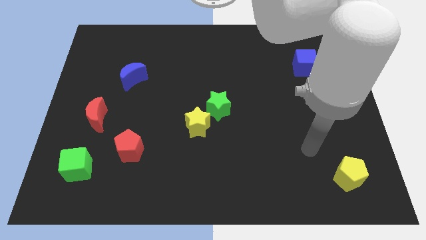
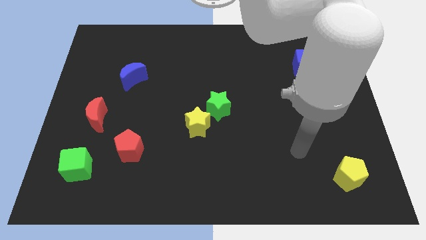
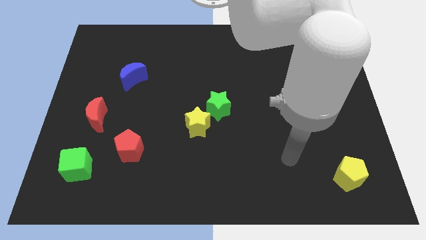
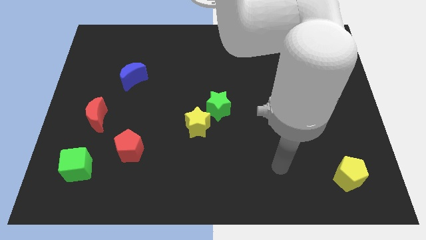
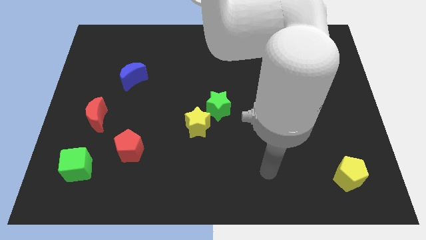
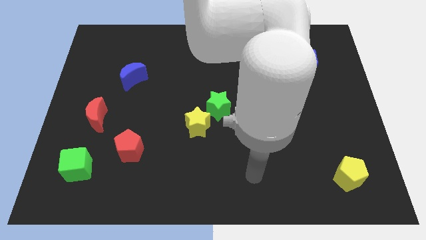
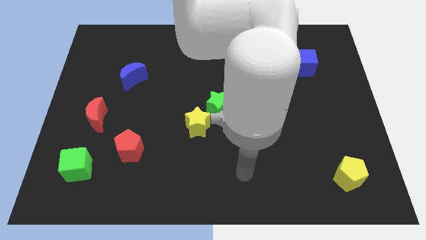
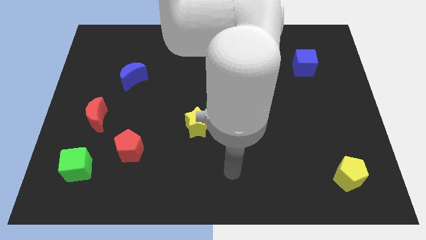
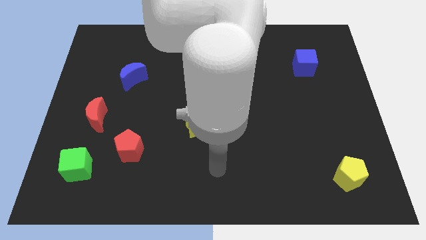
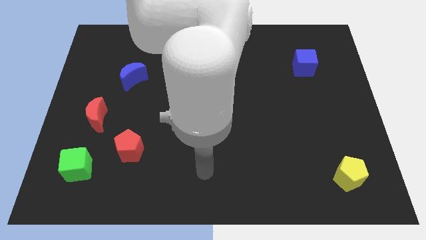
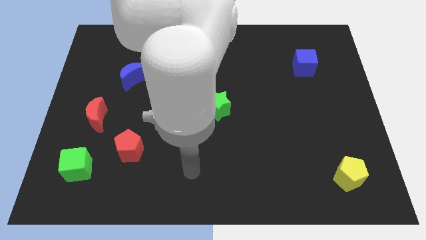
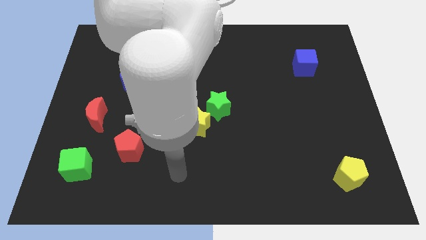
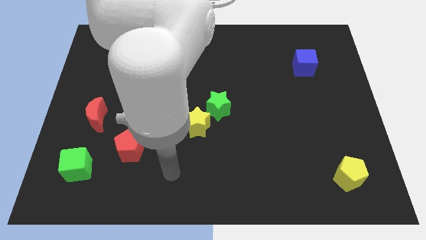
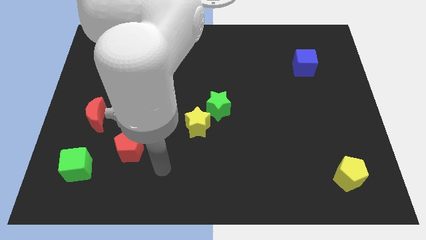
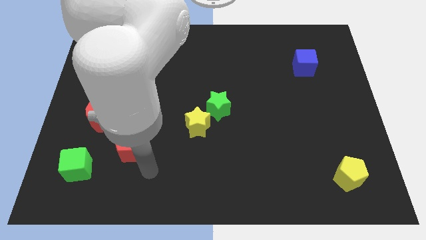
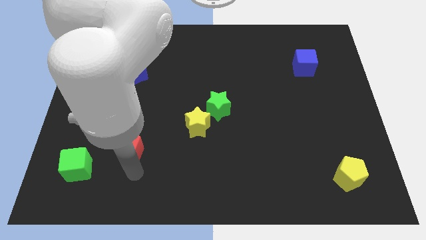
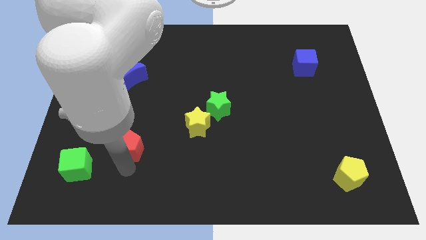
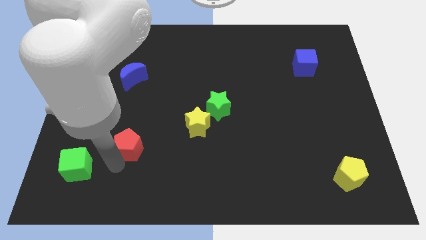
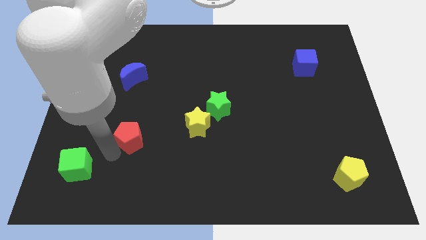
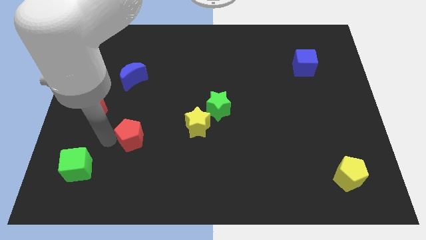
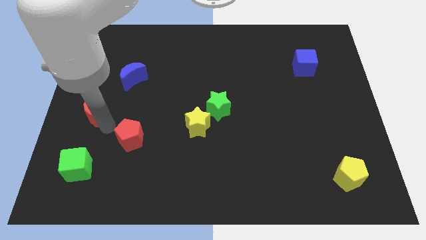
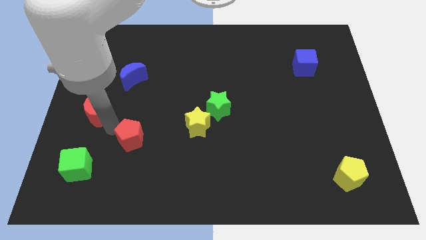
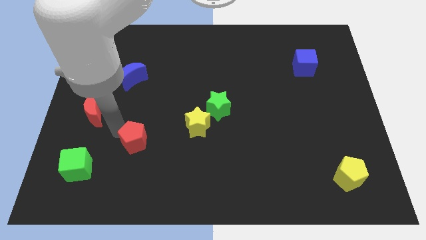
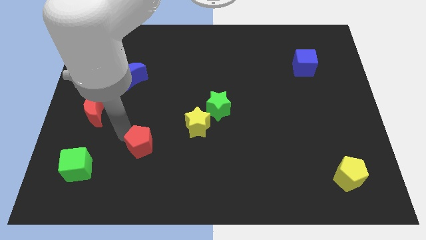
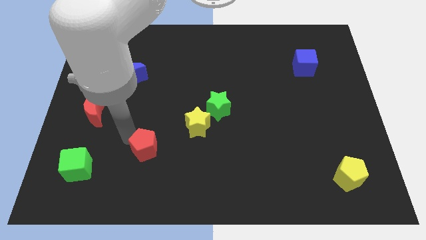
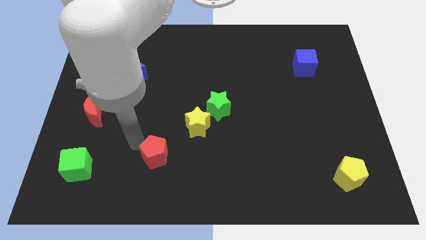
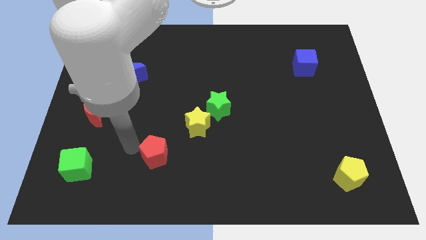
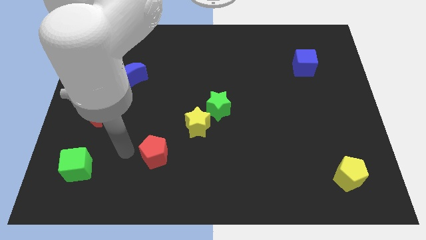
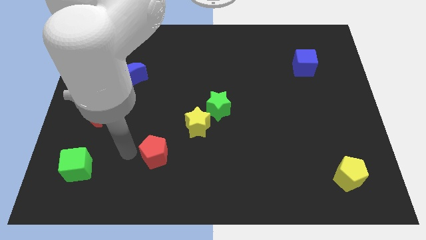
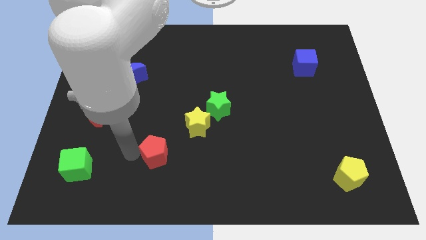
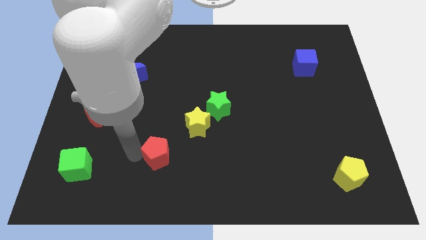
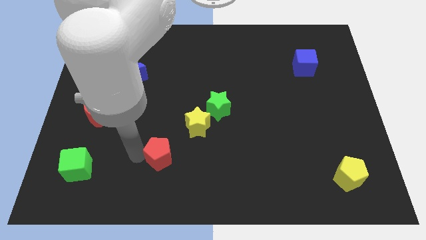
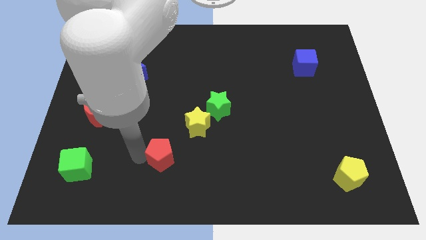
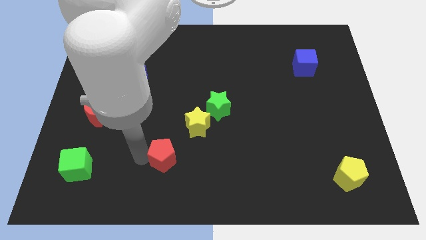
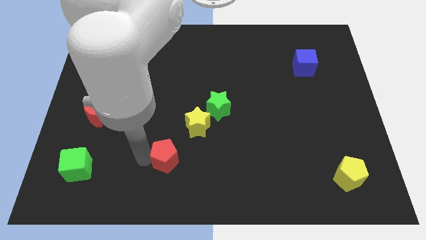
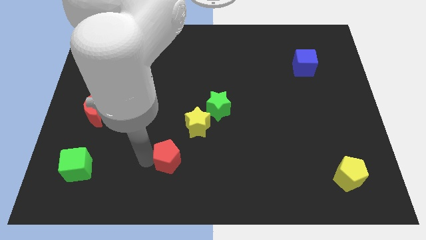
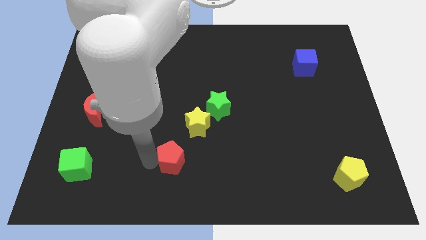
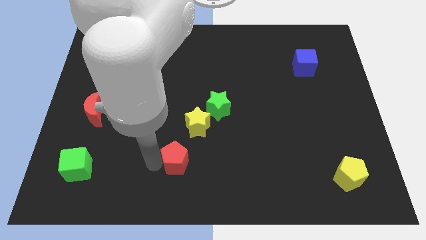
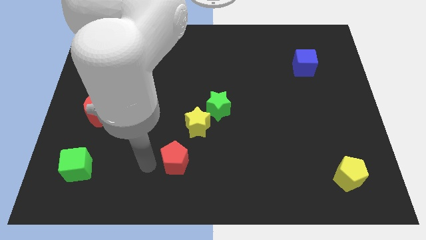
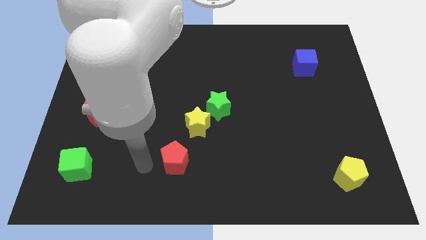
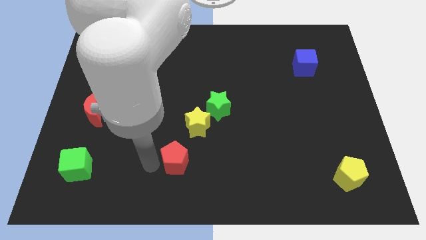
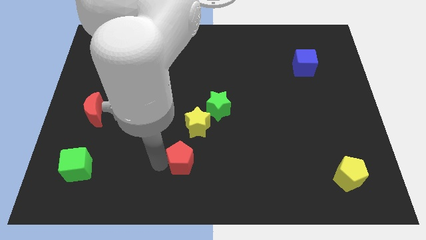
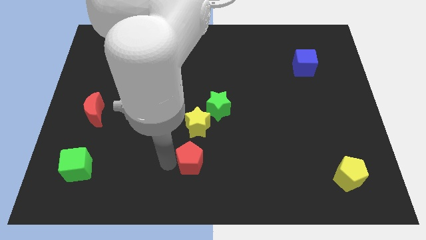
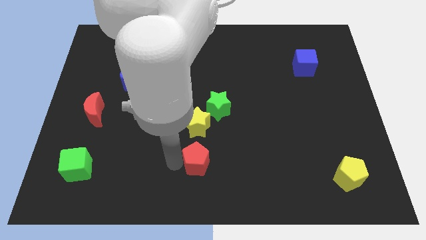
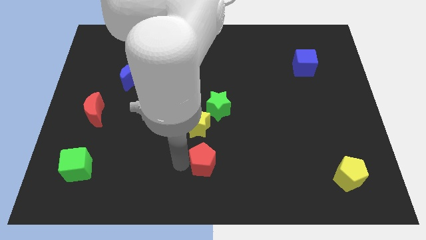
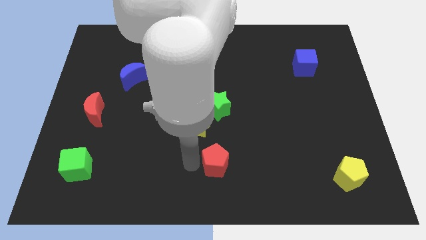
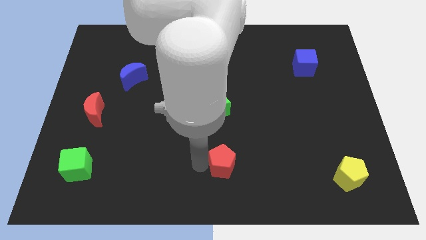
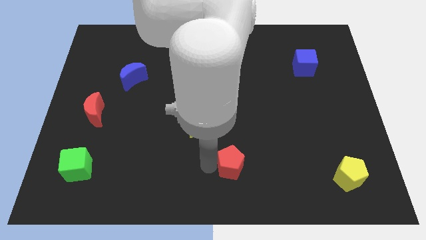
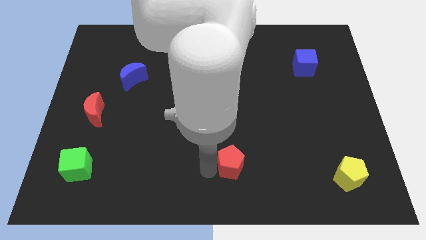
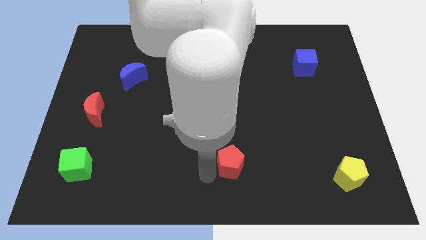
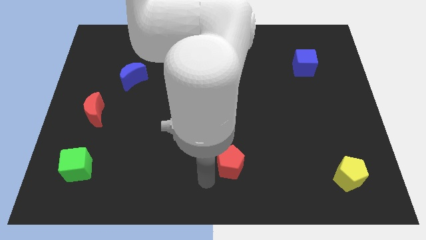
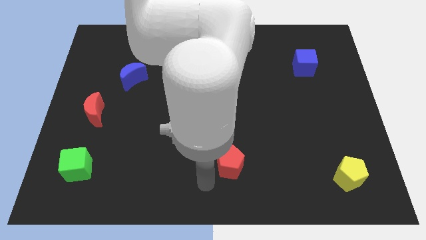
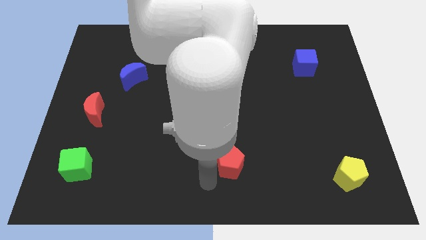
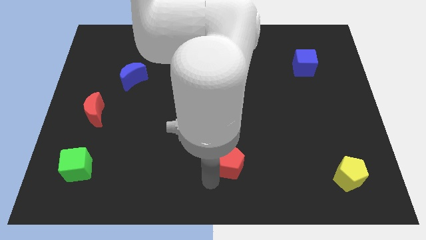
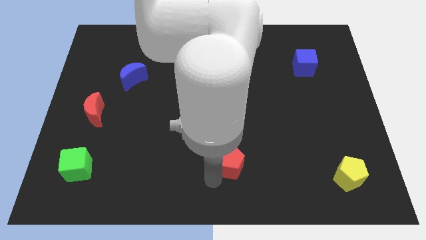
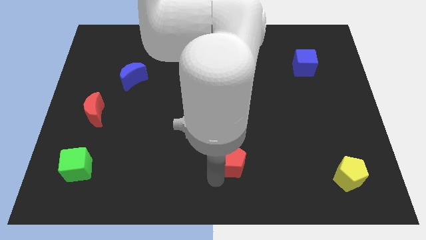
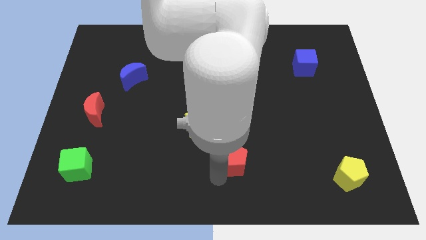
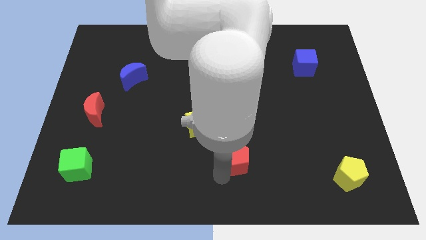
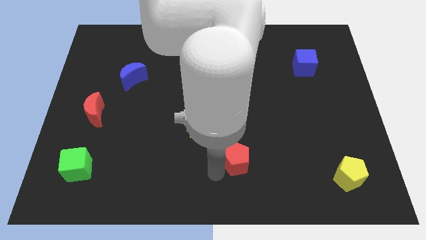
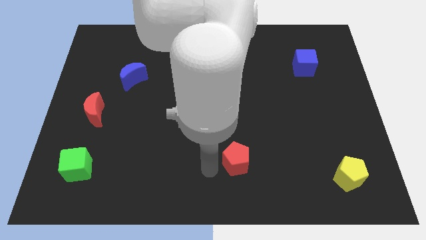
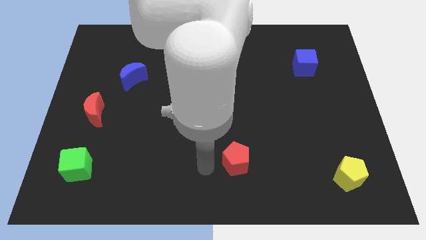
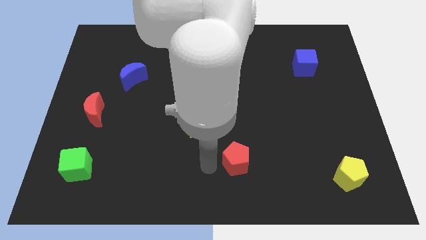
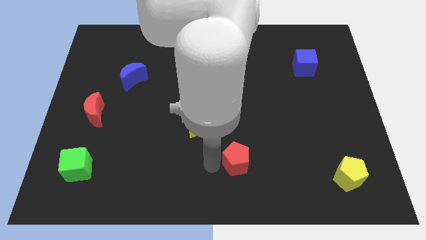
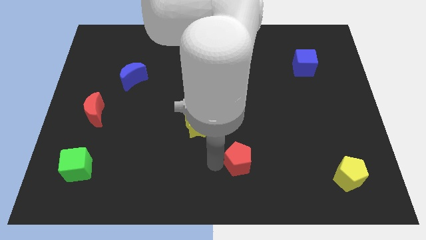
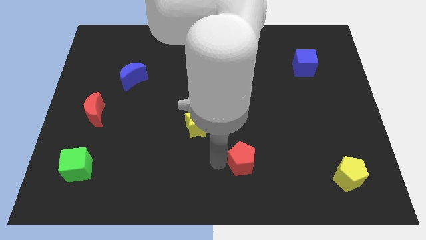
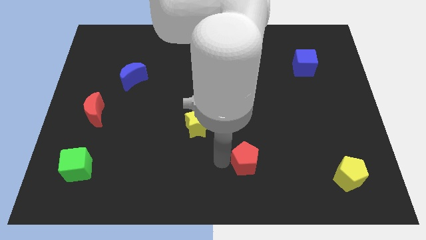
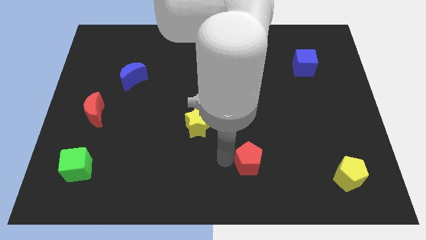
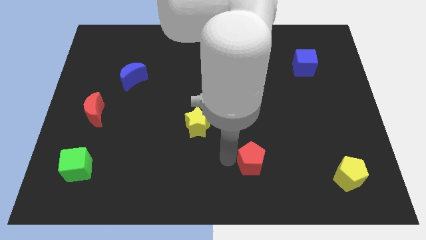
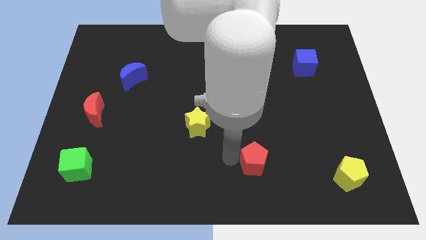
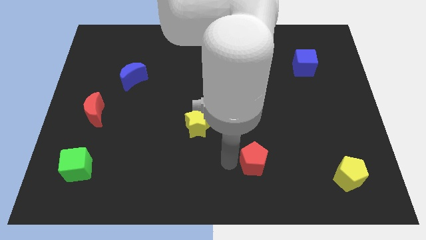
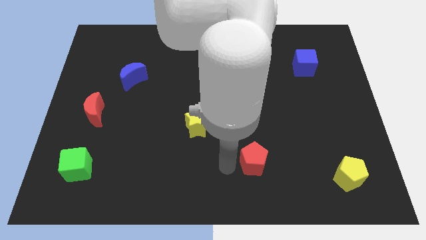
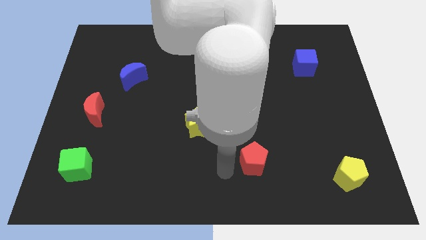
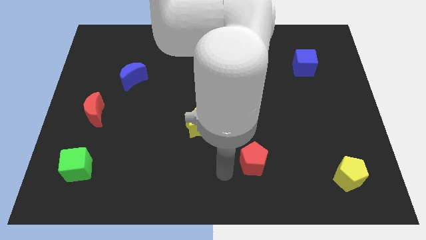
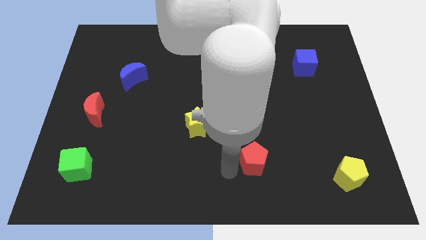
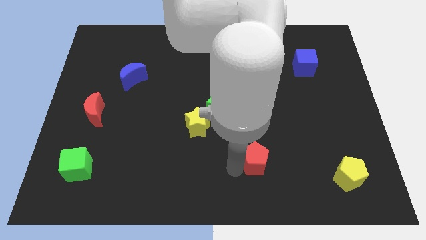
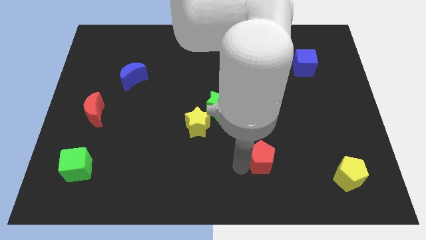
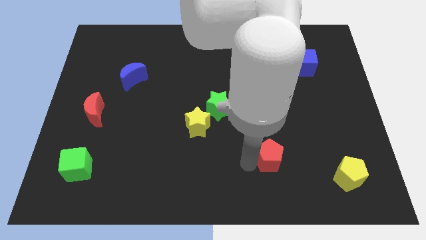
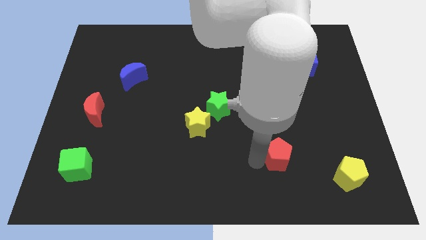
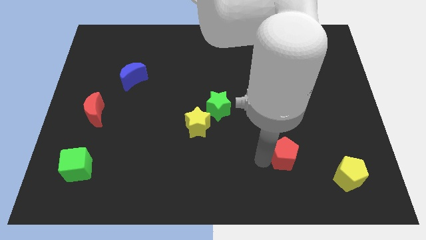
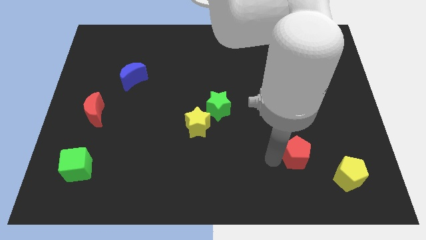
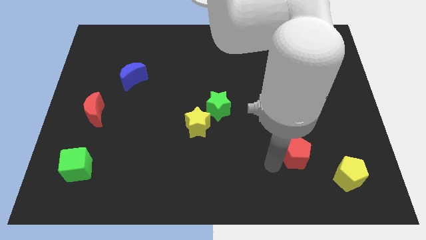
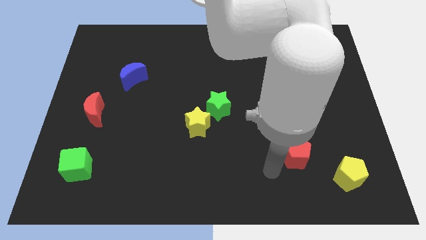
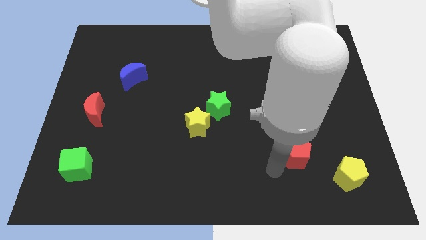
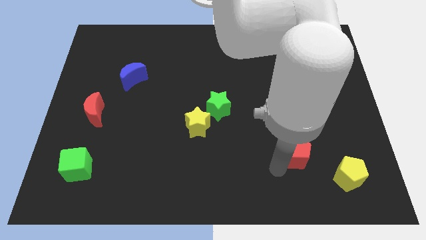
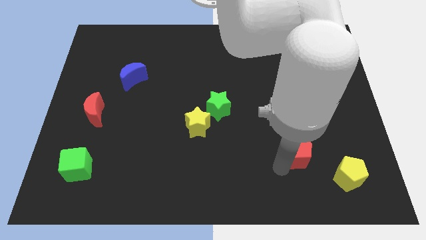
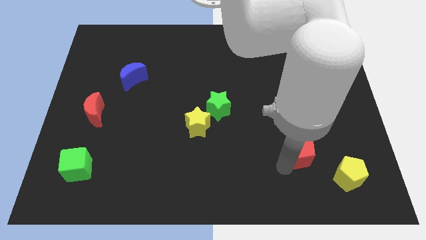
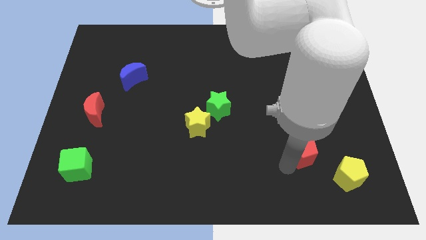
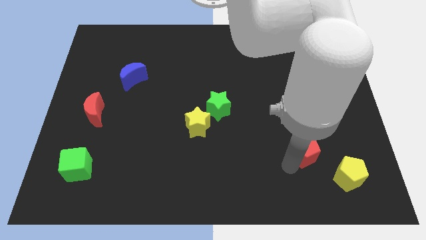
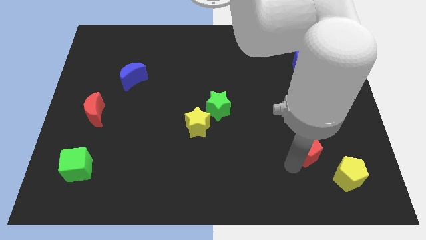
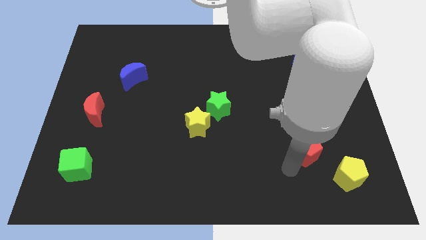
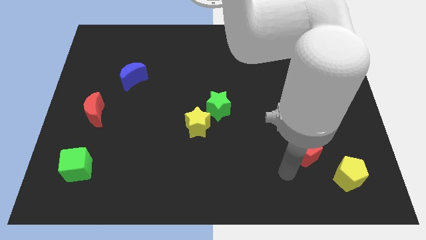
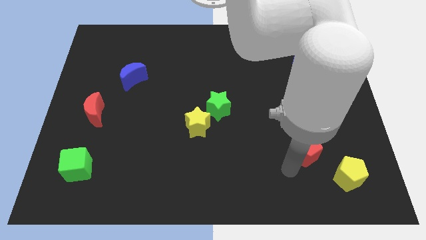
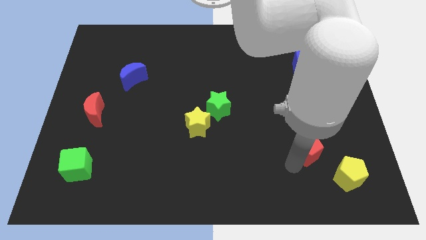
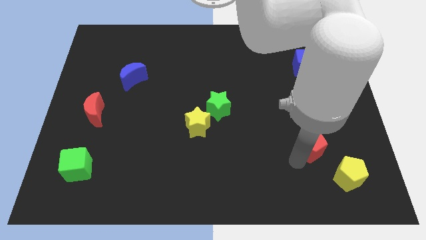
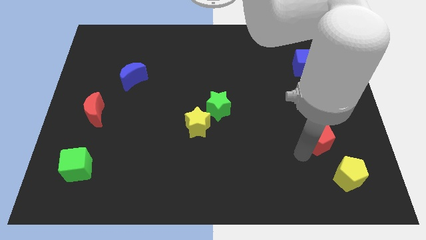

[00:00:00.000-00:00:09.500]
slide the red pentagon above the yellow pentagon
